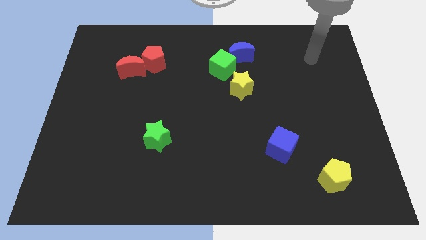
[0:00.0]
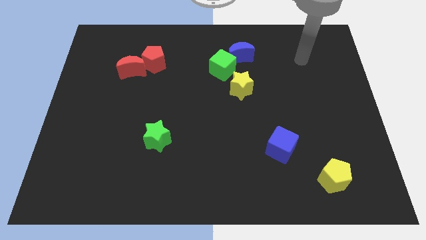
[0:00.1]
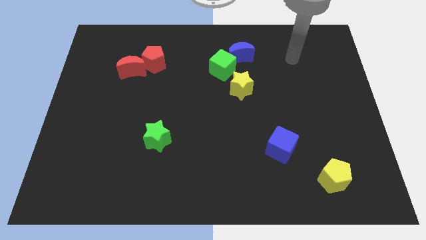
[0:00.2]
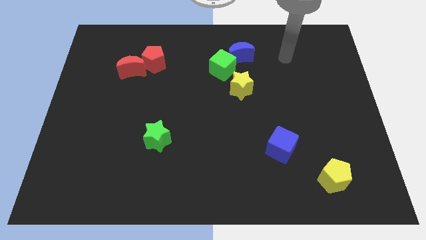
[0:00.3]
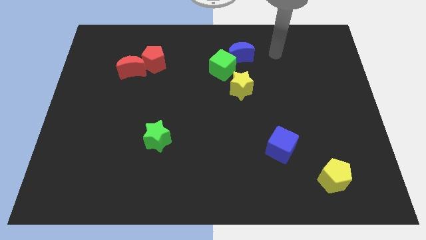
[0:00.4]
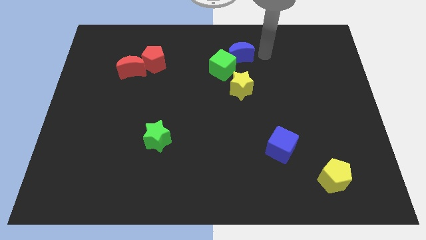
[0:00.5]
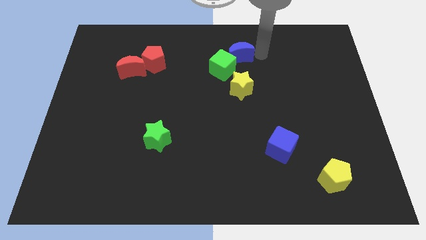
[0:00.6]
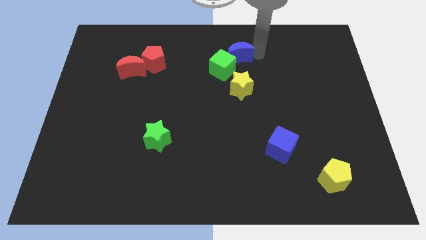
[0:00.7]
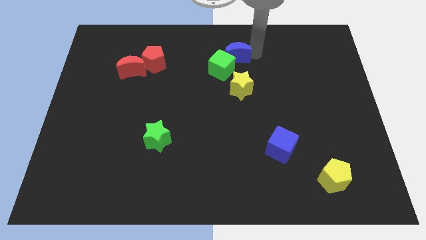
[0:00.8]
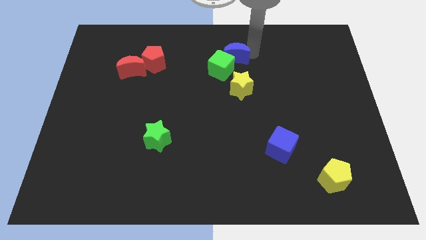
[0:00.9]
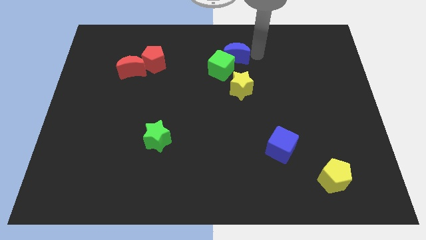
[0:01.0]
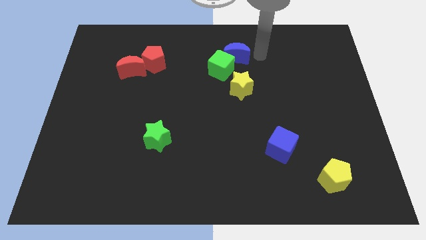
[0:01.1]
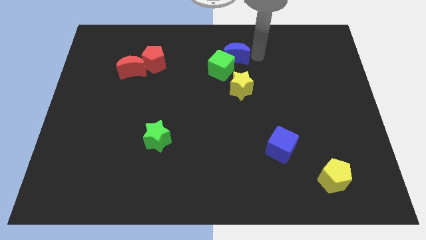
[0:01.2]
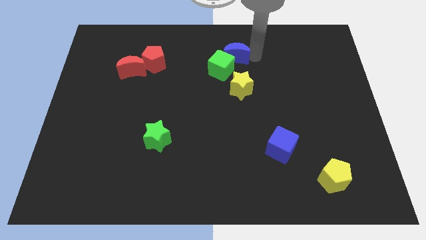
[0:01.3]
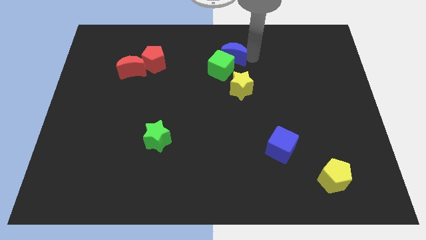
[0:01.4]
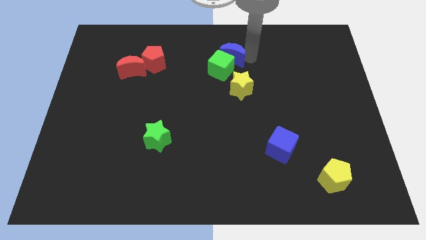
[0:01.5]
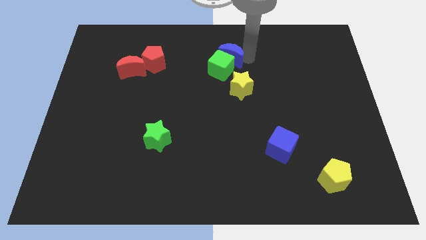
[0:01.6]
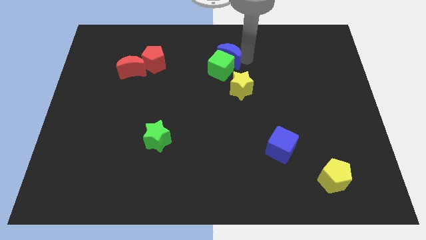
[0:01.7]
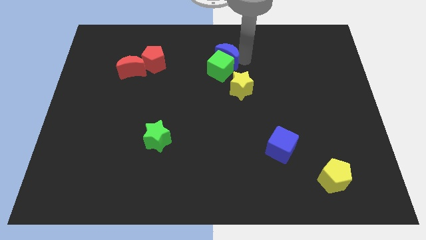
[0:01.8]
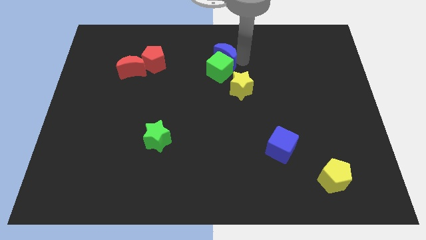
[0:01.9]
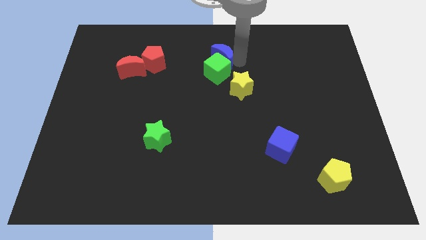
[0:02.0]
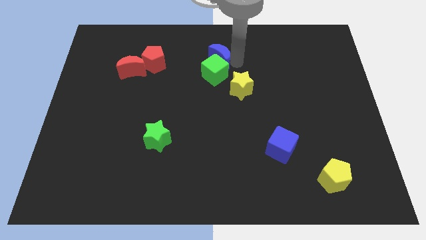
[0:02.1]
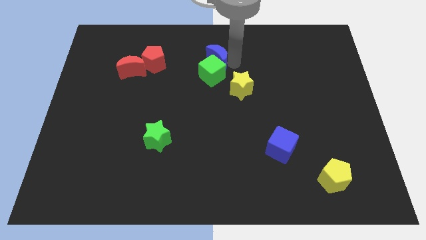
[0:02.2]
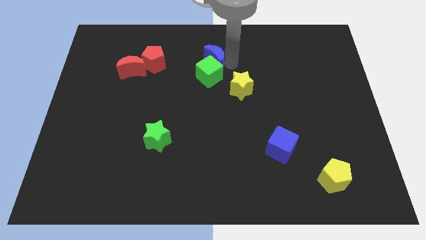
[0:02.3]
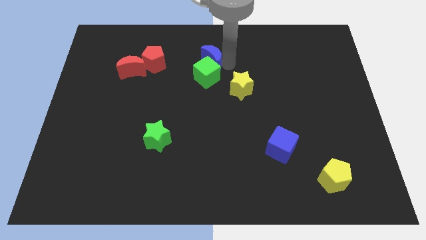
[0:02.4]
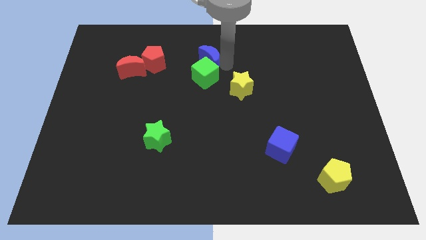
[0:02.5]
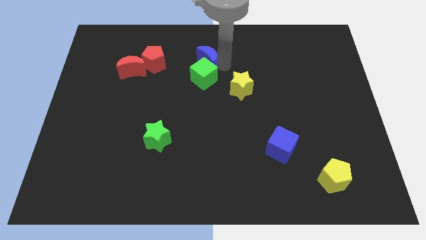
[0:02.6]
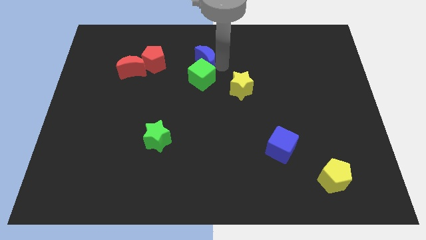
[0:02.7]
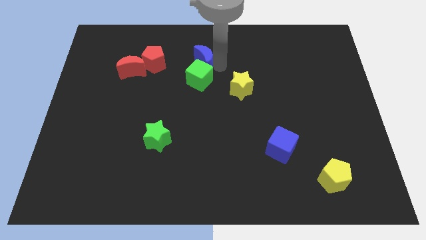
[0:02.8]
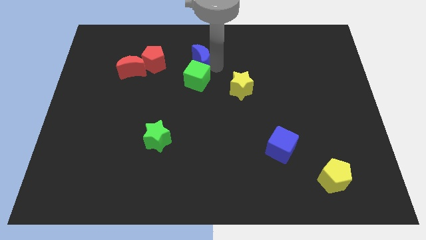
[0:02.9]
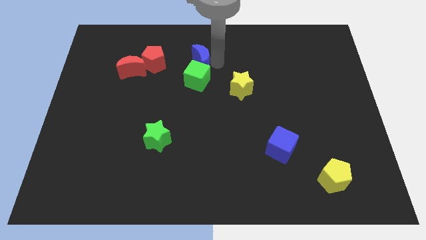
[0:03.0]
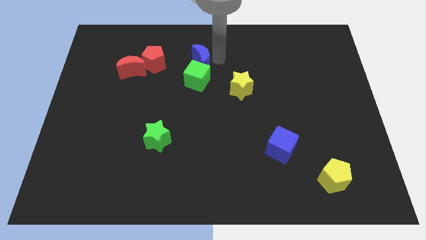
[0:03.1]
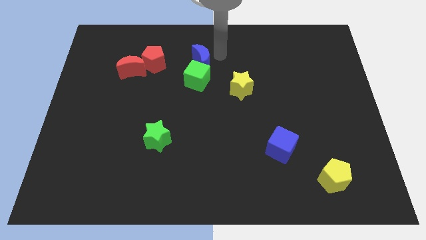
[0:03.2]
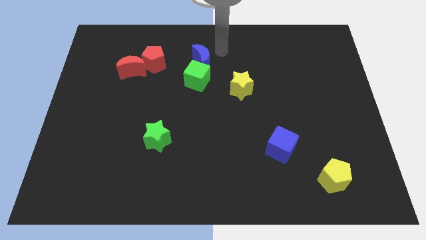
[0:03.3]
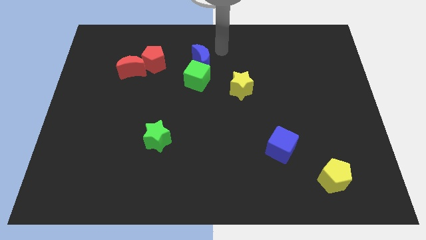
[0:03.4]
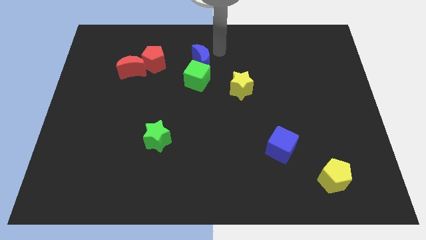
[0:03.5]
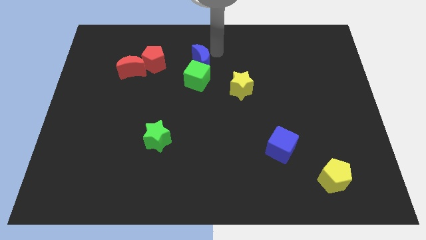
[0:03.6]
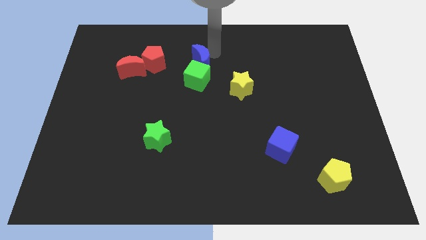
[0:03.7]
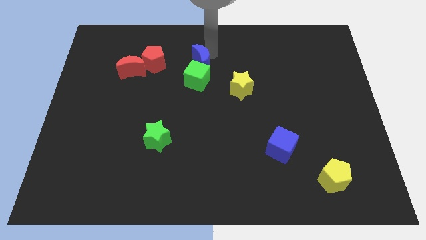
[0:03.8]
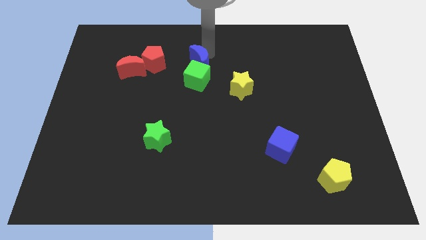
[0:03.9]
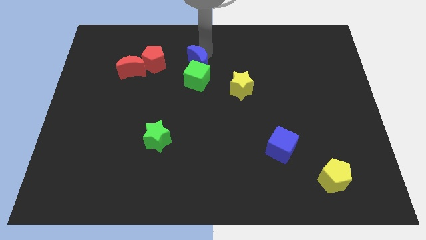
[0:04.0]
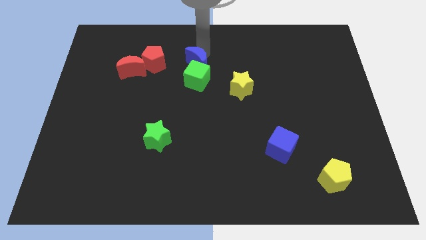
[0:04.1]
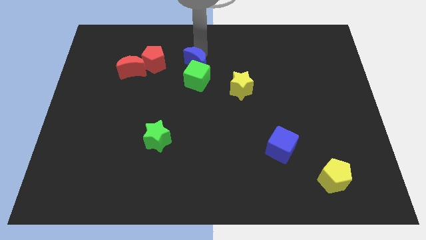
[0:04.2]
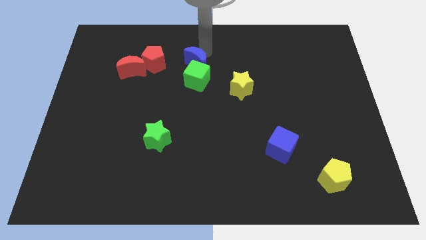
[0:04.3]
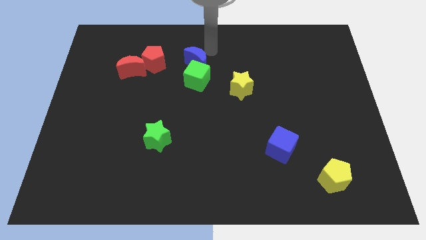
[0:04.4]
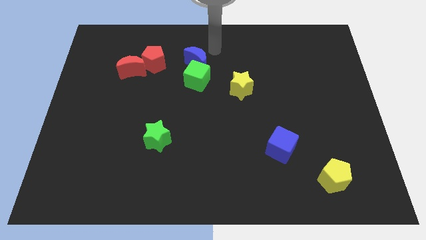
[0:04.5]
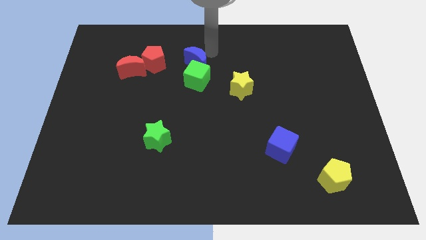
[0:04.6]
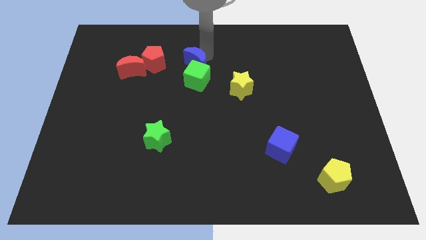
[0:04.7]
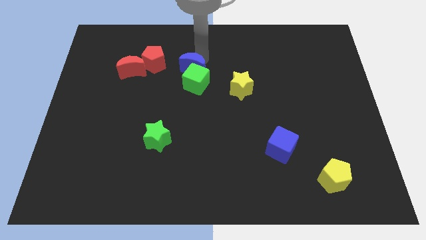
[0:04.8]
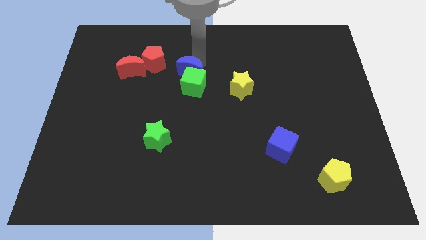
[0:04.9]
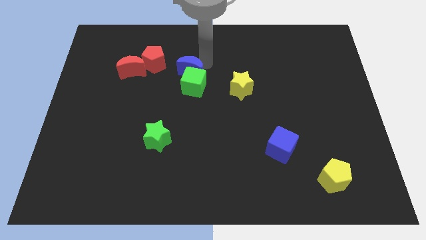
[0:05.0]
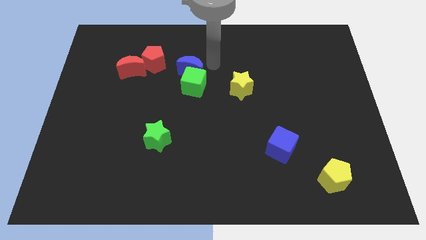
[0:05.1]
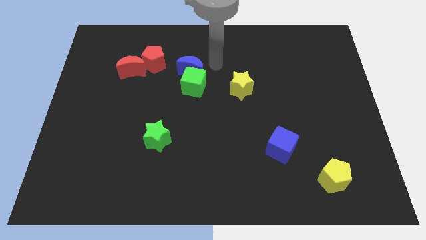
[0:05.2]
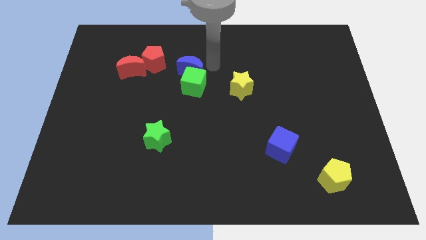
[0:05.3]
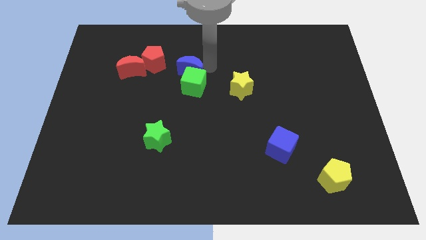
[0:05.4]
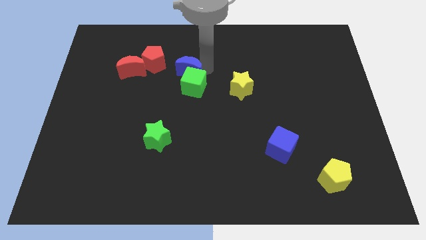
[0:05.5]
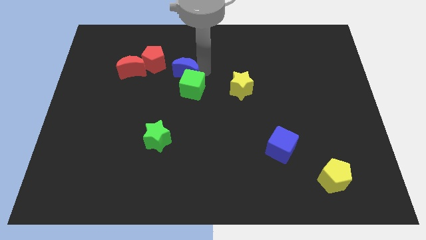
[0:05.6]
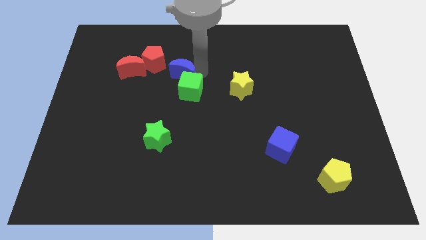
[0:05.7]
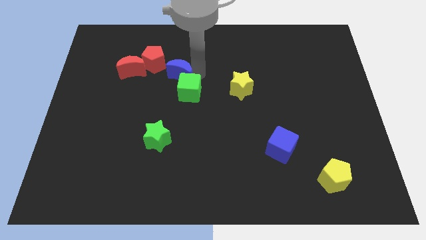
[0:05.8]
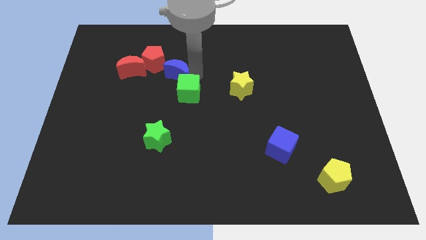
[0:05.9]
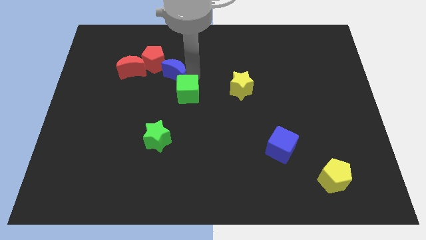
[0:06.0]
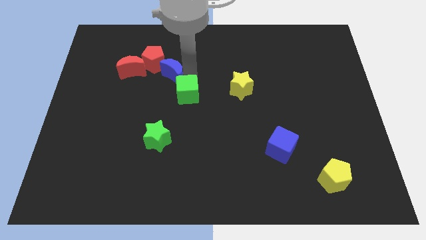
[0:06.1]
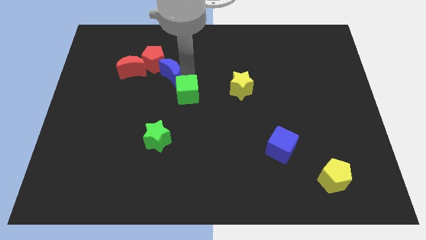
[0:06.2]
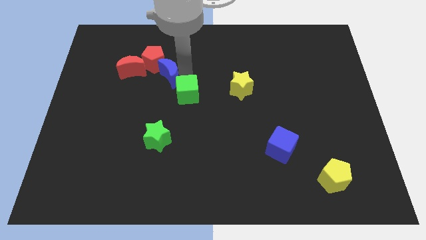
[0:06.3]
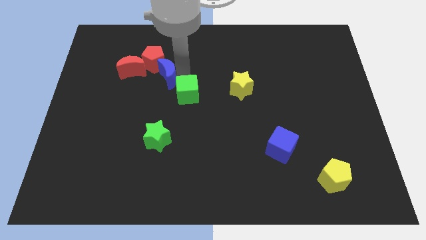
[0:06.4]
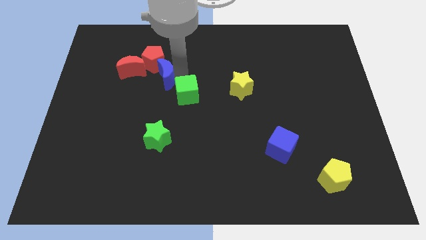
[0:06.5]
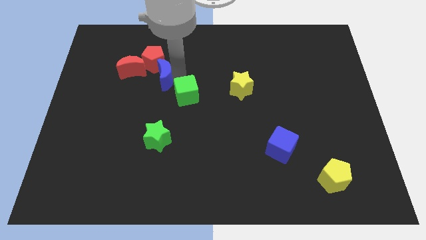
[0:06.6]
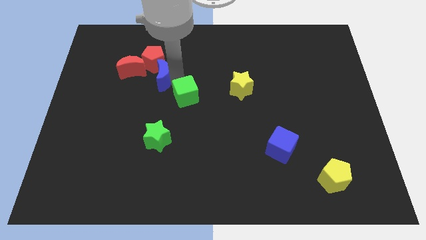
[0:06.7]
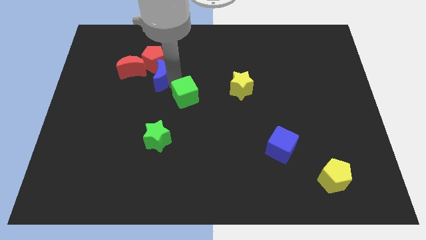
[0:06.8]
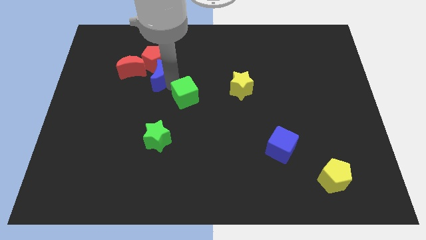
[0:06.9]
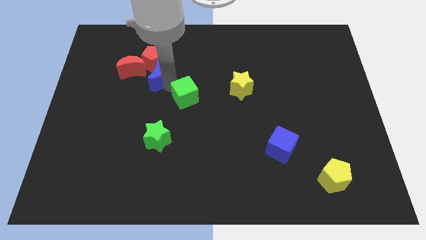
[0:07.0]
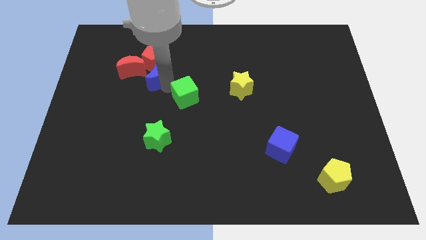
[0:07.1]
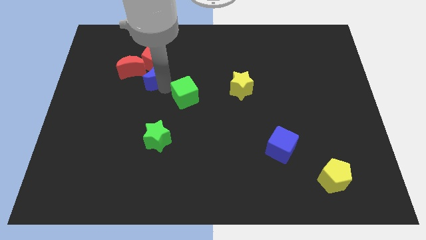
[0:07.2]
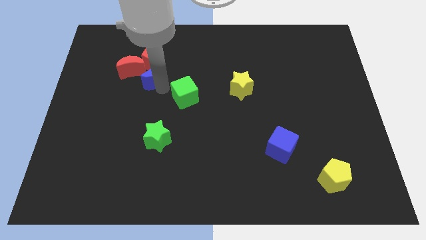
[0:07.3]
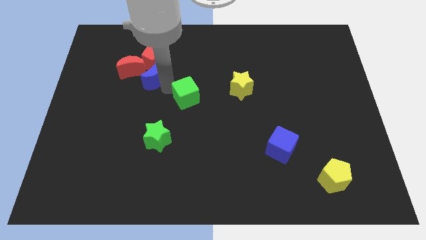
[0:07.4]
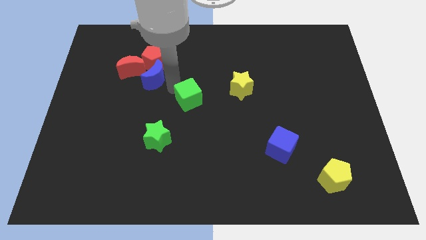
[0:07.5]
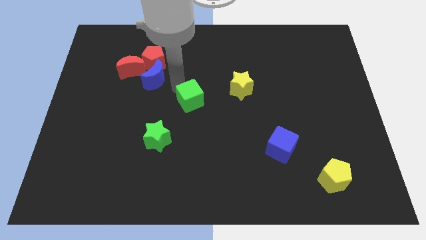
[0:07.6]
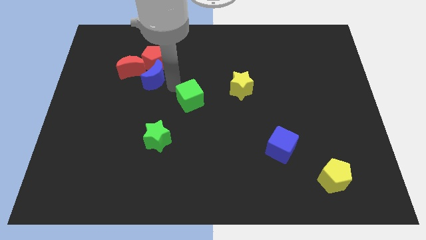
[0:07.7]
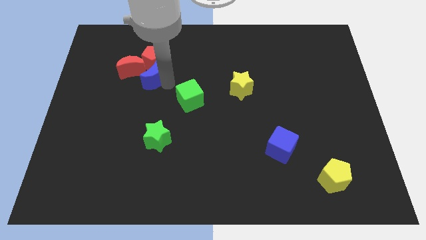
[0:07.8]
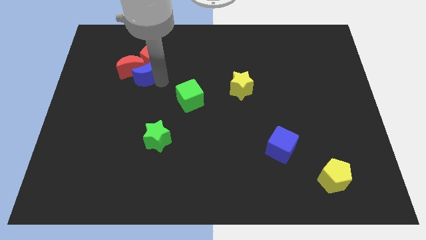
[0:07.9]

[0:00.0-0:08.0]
slide the blue moon to the red moon
